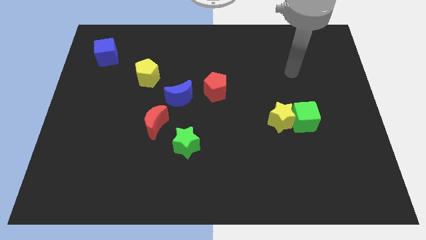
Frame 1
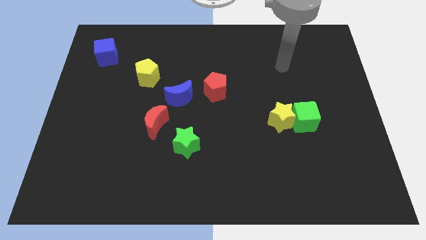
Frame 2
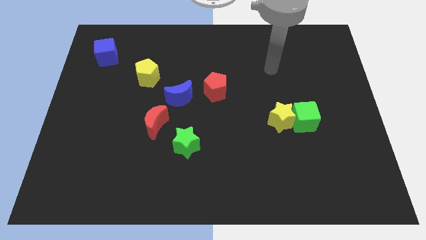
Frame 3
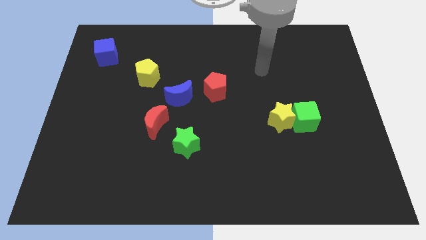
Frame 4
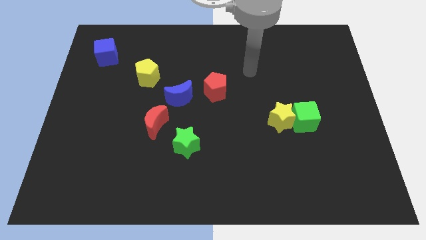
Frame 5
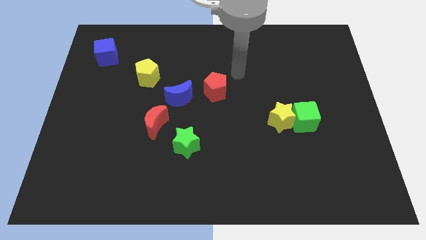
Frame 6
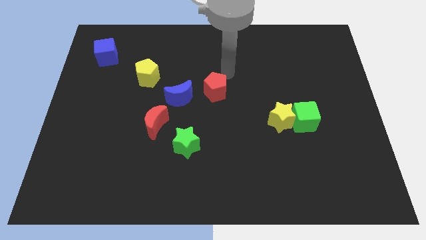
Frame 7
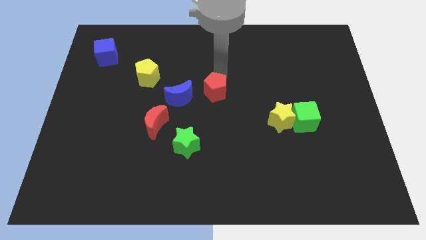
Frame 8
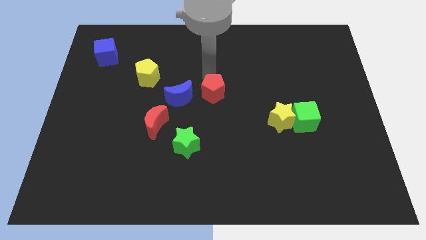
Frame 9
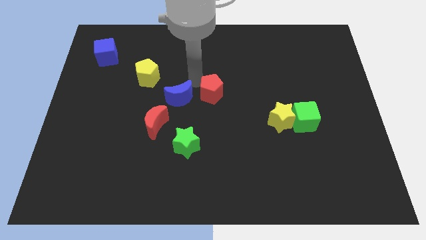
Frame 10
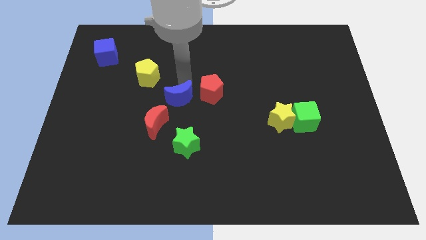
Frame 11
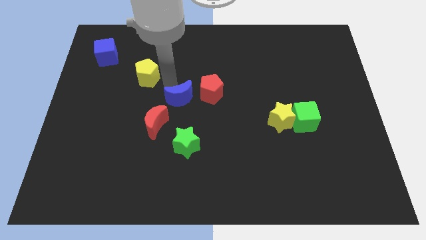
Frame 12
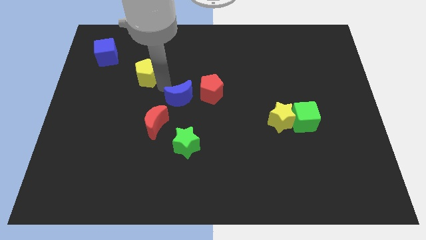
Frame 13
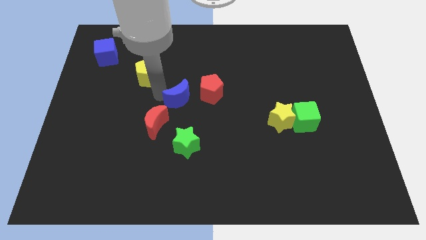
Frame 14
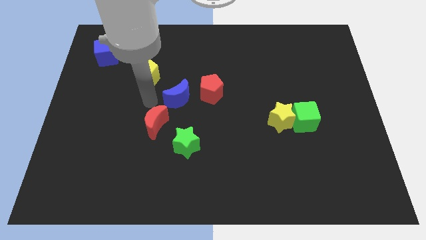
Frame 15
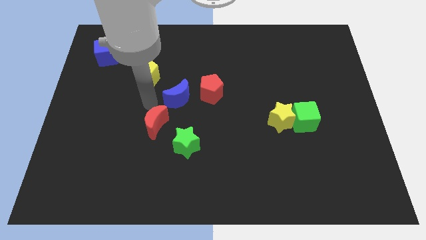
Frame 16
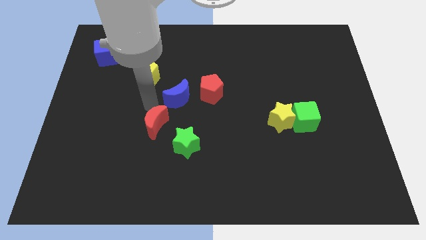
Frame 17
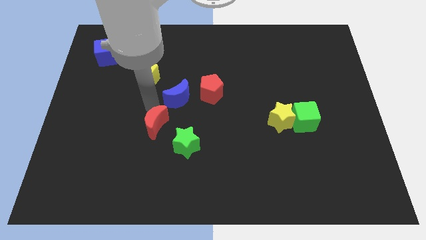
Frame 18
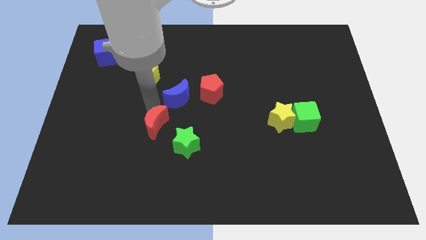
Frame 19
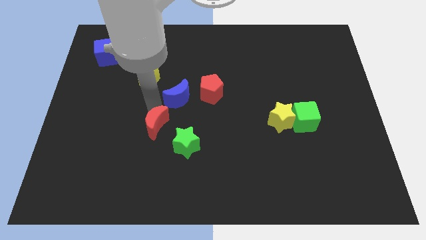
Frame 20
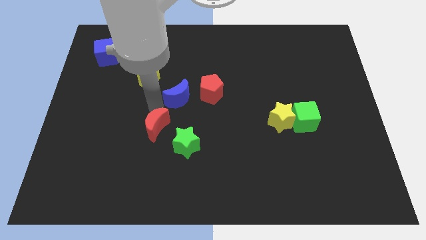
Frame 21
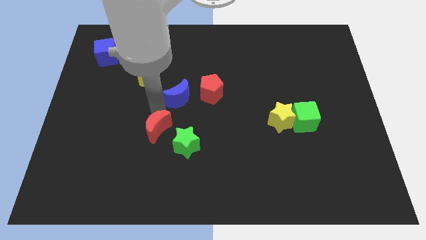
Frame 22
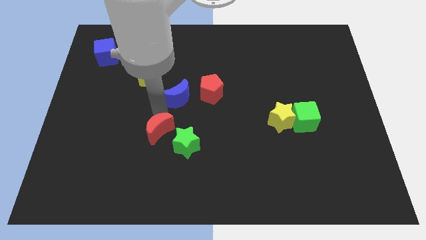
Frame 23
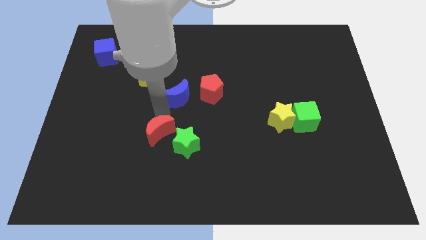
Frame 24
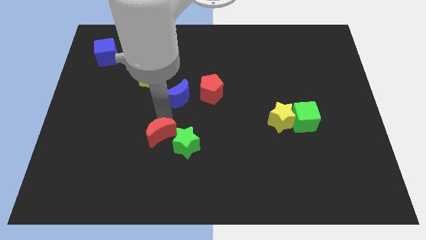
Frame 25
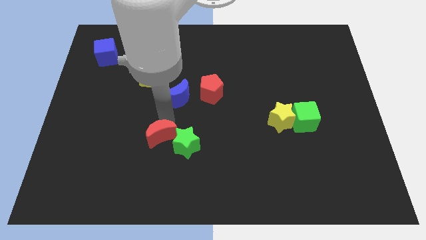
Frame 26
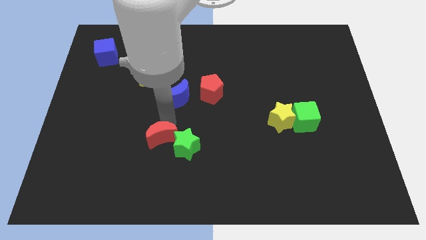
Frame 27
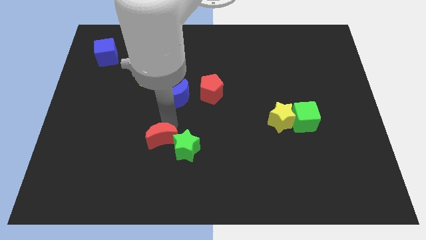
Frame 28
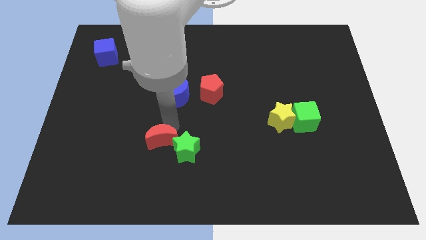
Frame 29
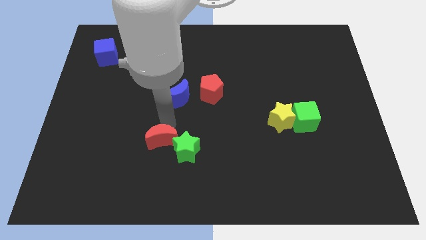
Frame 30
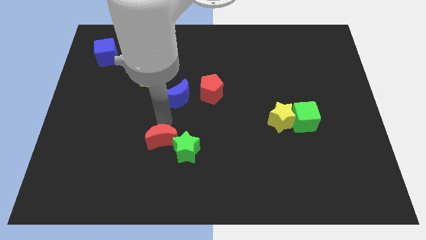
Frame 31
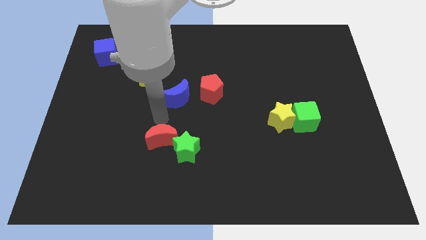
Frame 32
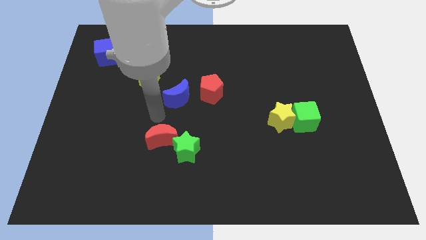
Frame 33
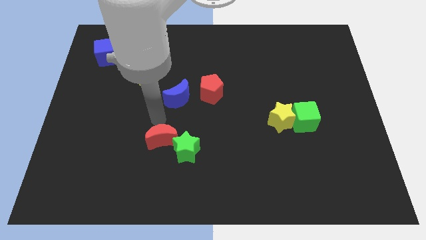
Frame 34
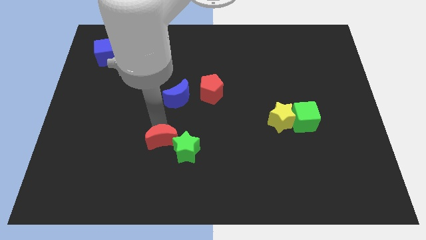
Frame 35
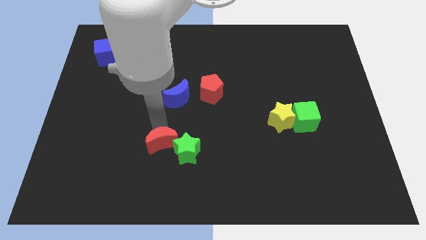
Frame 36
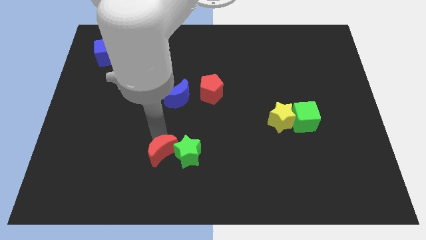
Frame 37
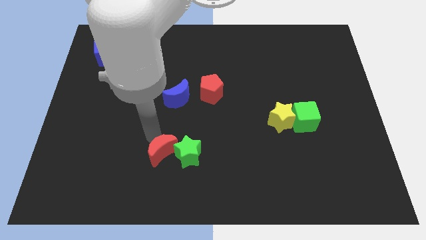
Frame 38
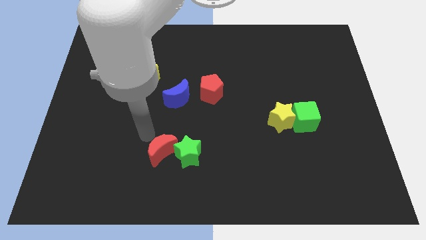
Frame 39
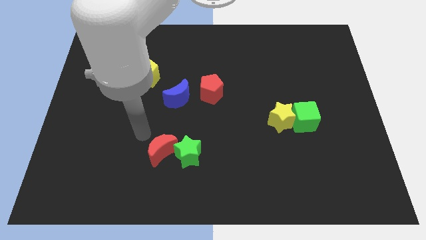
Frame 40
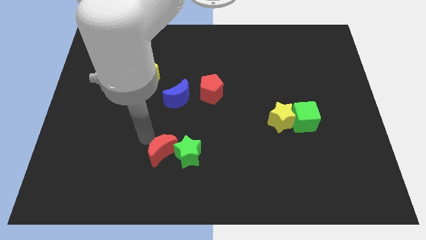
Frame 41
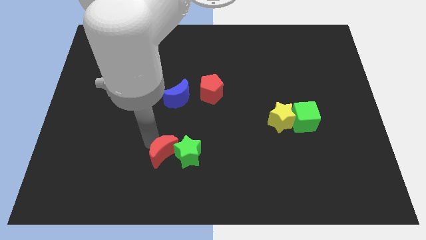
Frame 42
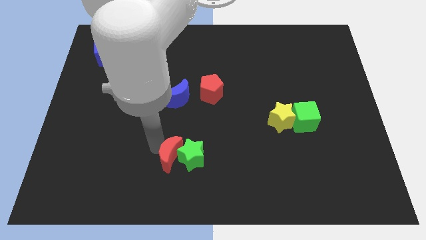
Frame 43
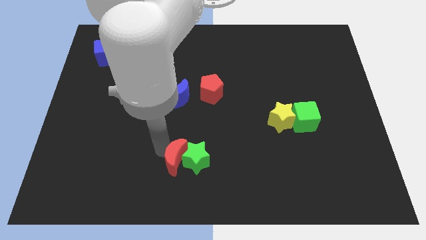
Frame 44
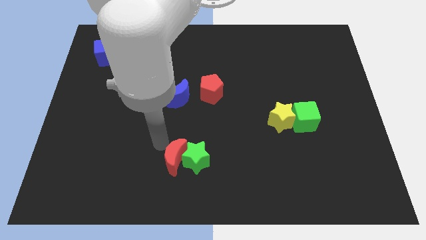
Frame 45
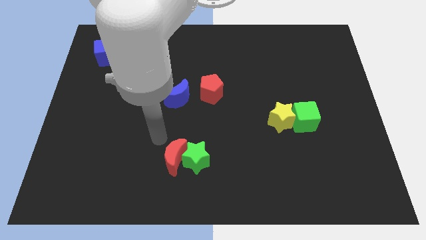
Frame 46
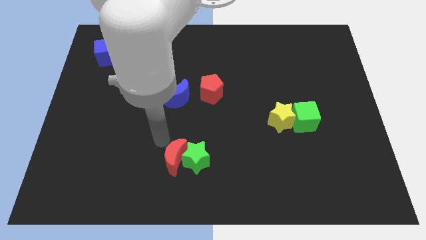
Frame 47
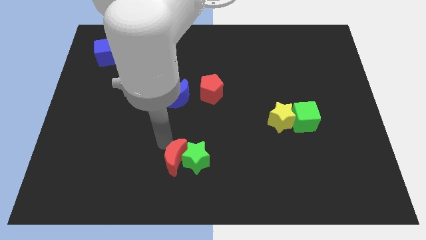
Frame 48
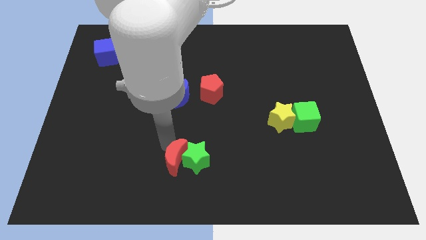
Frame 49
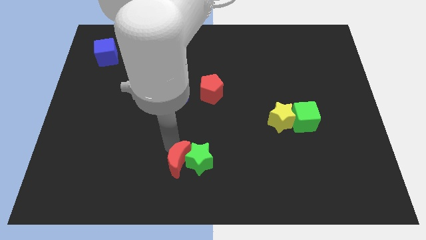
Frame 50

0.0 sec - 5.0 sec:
slide the red moon to the bottom

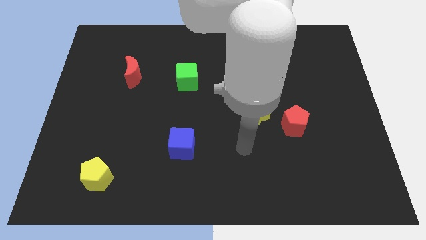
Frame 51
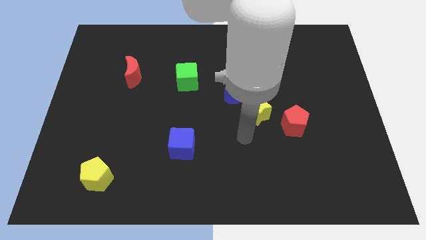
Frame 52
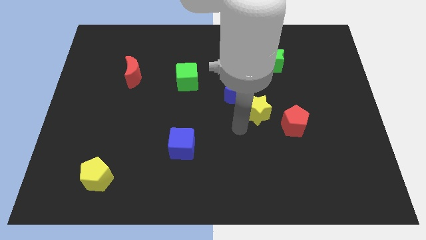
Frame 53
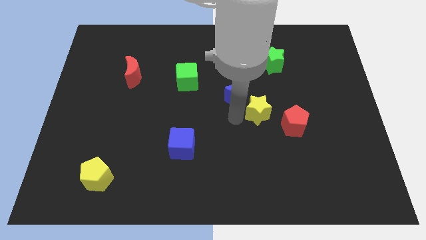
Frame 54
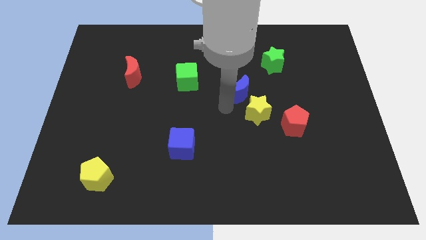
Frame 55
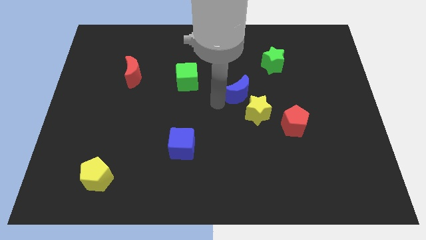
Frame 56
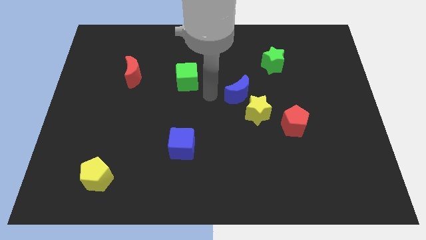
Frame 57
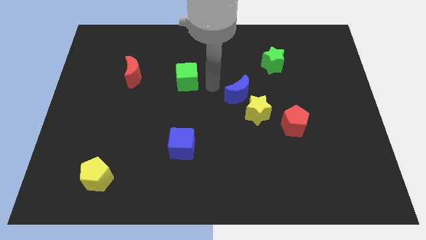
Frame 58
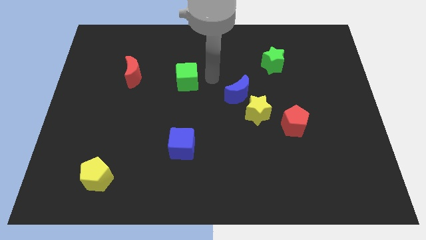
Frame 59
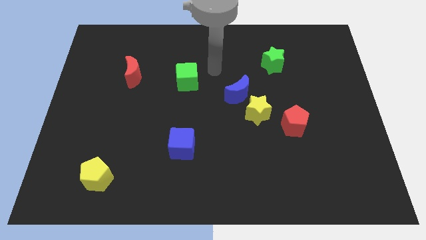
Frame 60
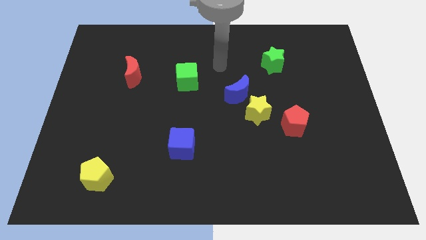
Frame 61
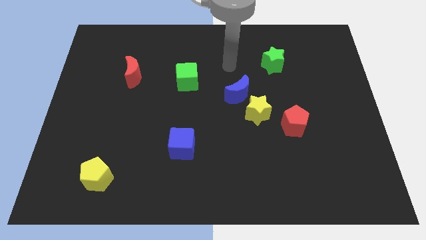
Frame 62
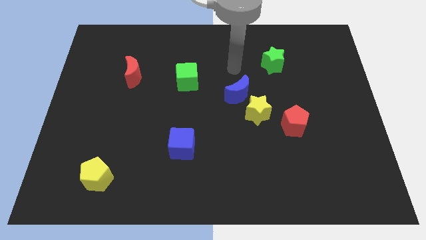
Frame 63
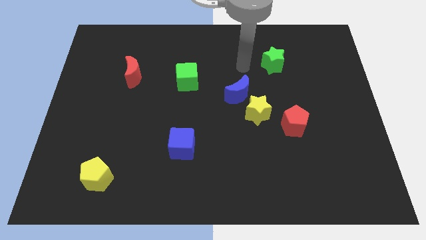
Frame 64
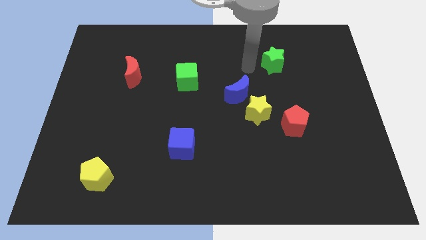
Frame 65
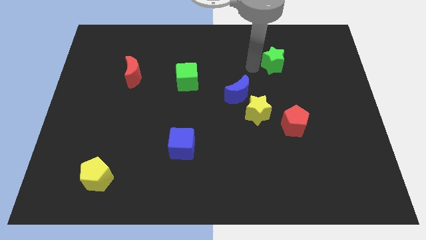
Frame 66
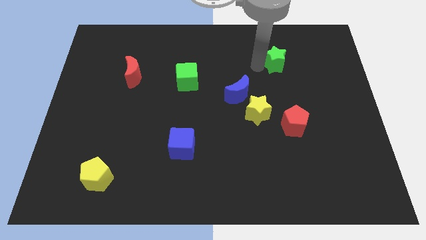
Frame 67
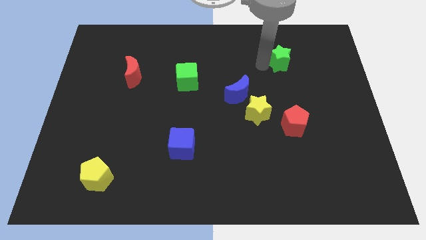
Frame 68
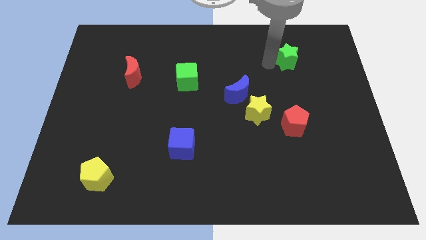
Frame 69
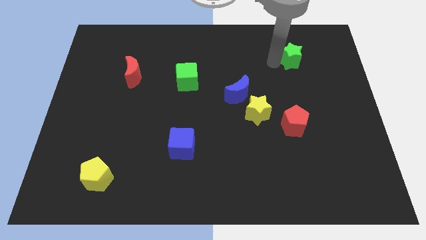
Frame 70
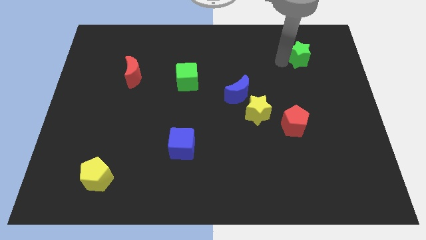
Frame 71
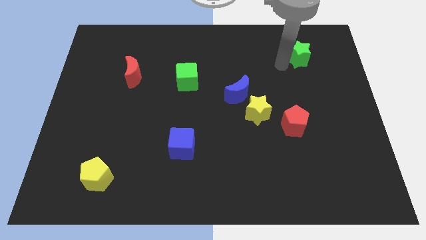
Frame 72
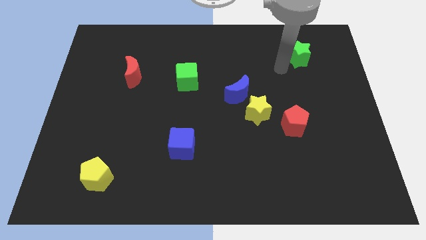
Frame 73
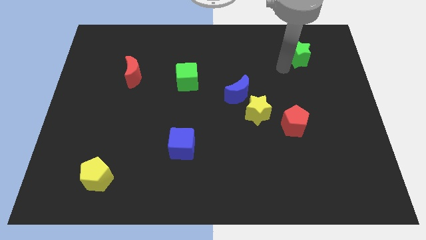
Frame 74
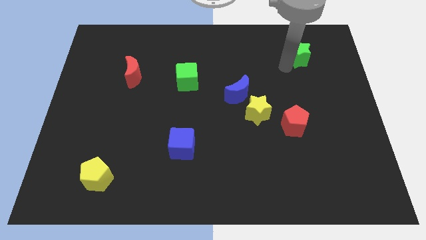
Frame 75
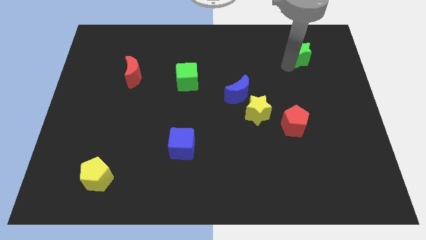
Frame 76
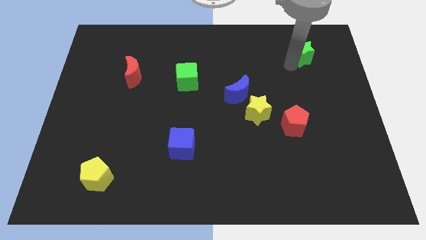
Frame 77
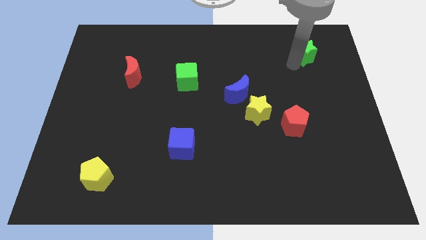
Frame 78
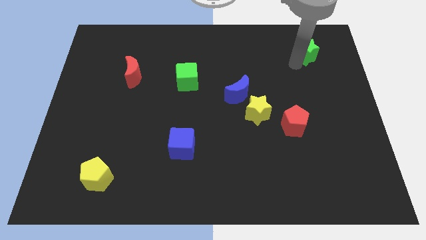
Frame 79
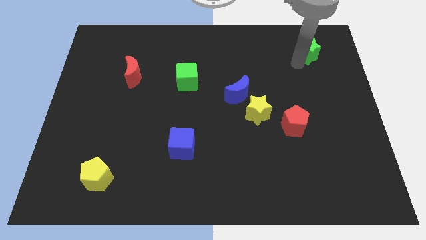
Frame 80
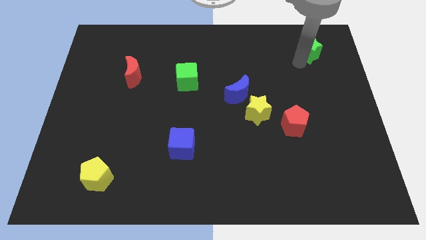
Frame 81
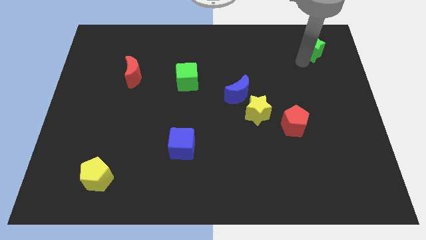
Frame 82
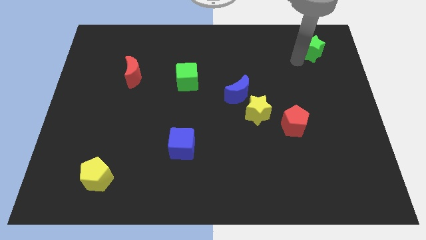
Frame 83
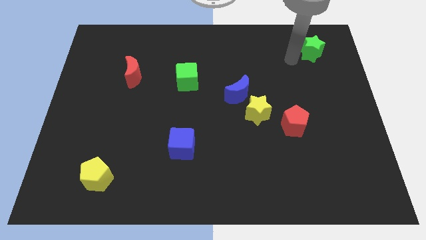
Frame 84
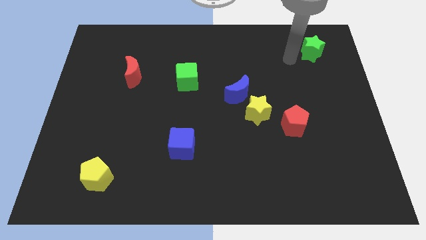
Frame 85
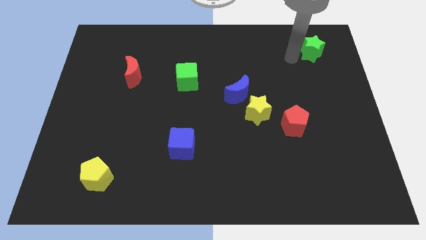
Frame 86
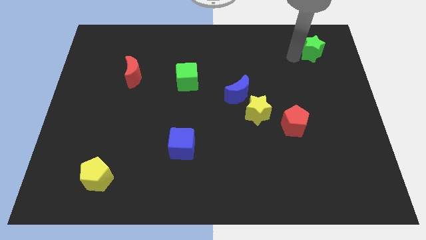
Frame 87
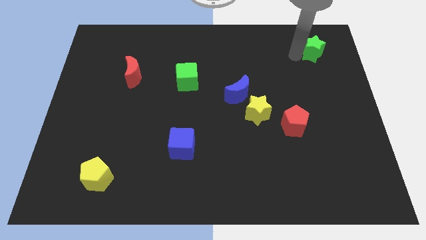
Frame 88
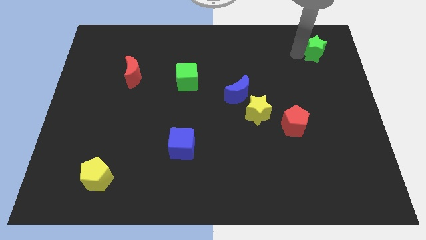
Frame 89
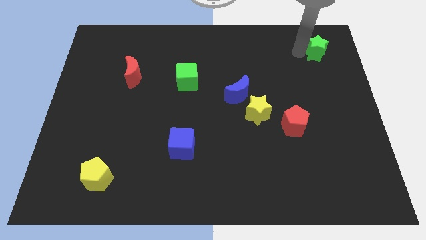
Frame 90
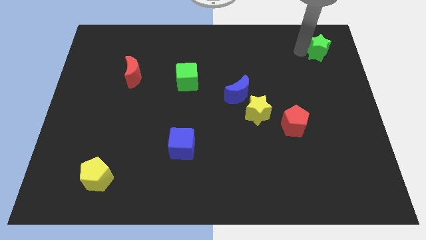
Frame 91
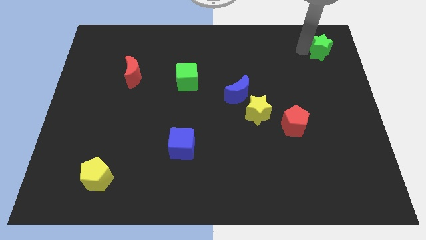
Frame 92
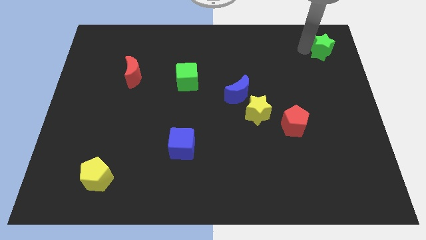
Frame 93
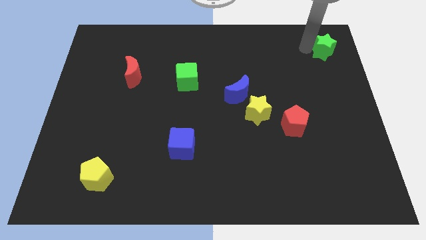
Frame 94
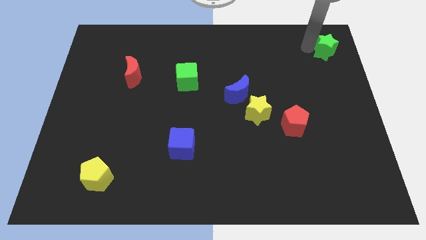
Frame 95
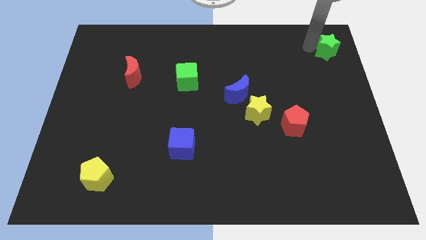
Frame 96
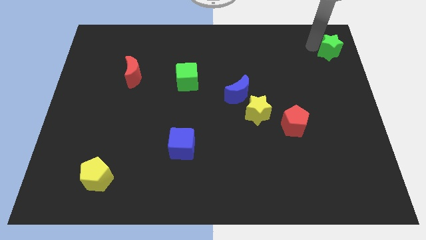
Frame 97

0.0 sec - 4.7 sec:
push the green star to the top right
